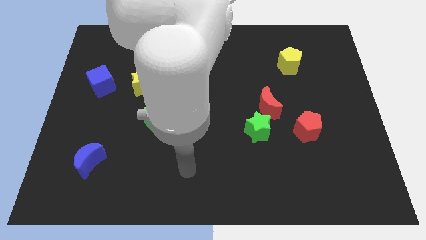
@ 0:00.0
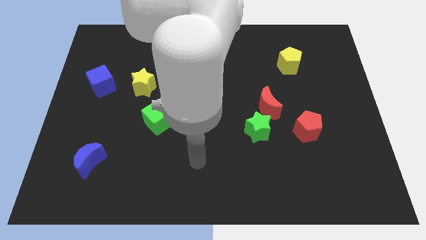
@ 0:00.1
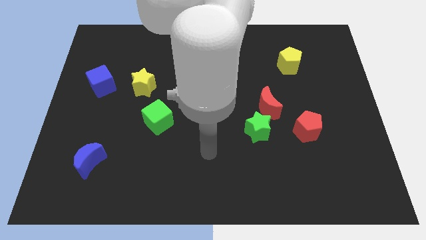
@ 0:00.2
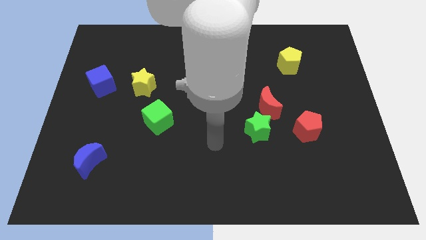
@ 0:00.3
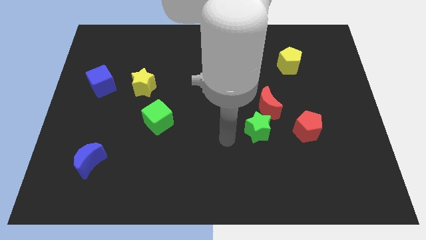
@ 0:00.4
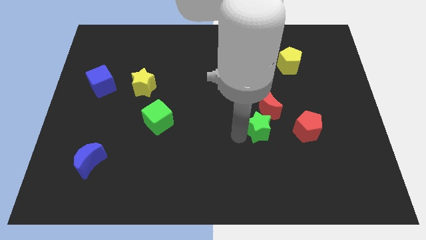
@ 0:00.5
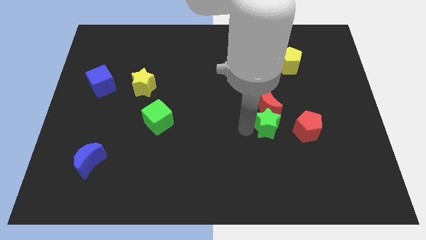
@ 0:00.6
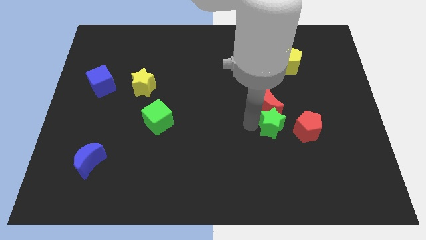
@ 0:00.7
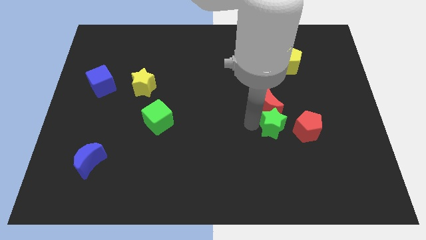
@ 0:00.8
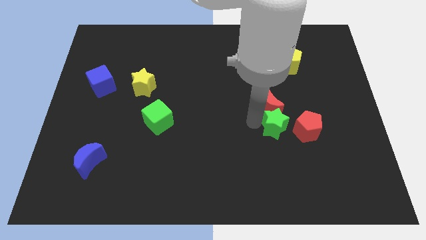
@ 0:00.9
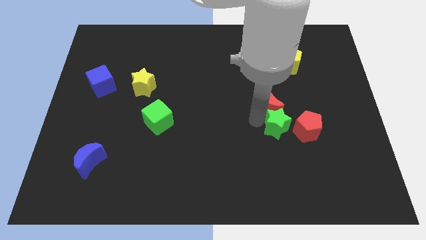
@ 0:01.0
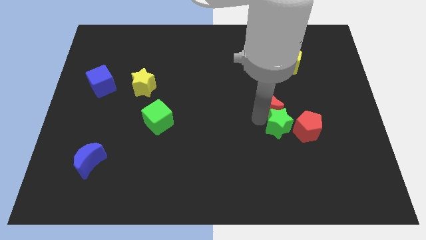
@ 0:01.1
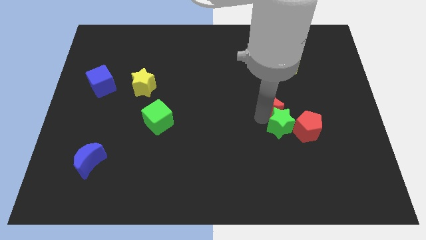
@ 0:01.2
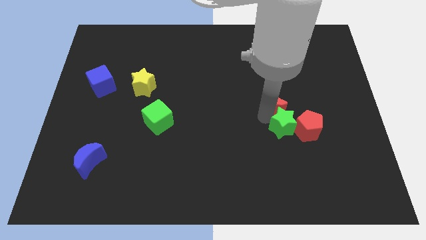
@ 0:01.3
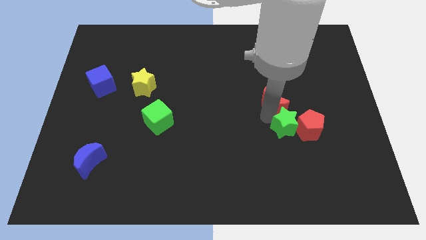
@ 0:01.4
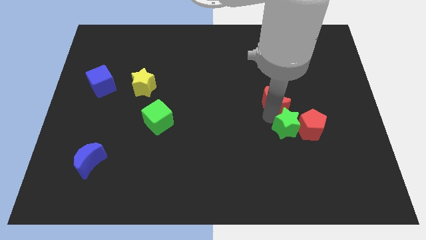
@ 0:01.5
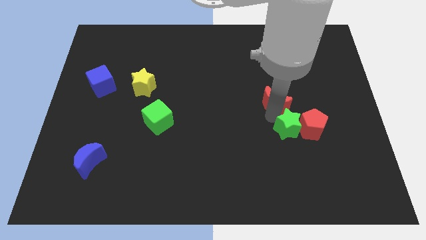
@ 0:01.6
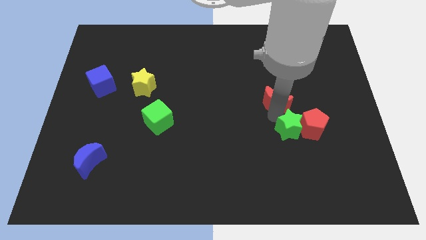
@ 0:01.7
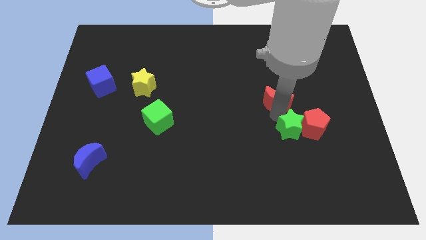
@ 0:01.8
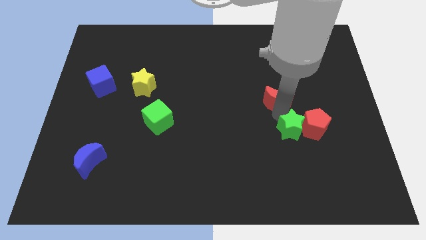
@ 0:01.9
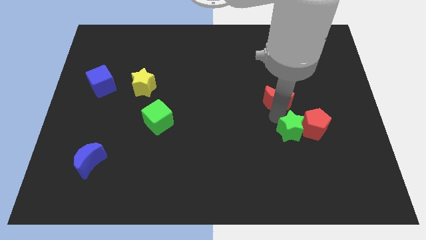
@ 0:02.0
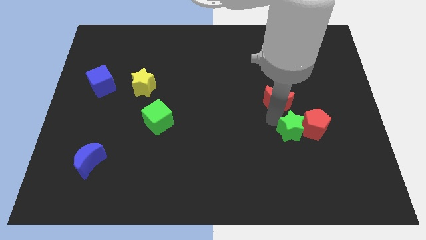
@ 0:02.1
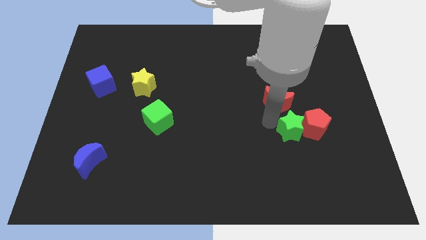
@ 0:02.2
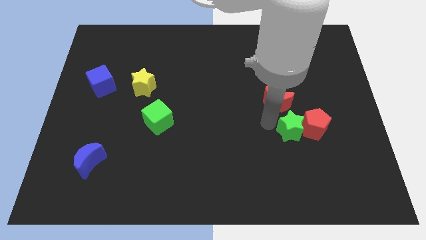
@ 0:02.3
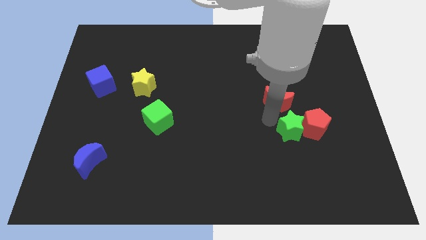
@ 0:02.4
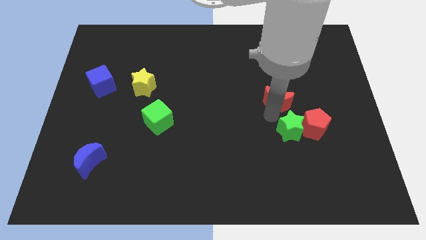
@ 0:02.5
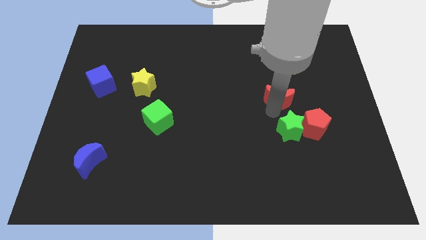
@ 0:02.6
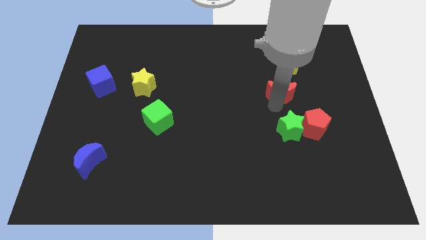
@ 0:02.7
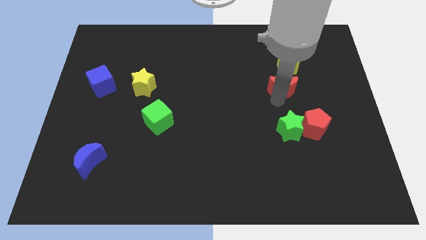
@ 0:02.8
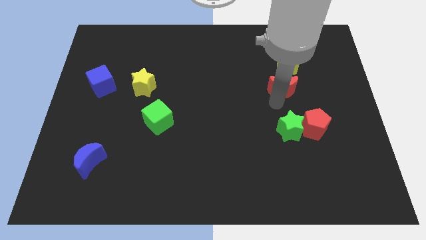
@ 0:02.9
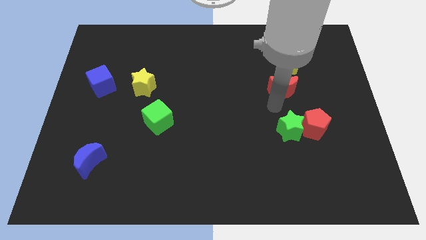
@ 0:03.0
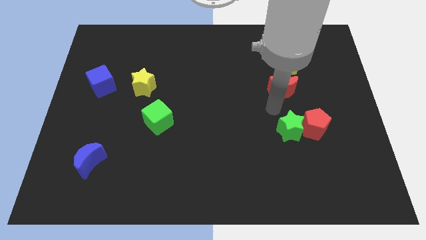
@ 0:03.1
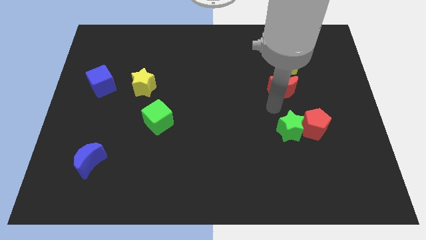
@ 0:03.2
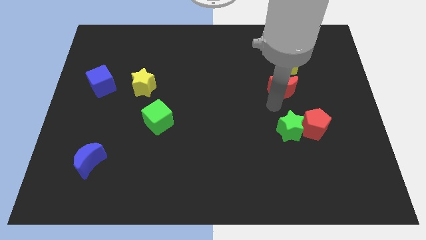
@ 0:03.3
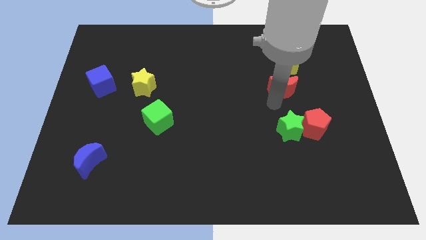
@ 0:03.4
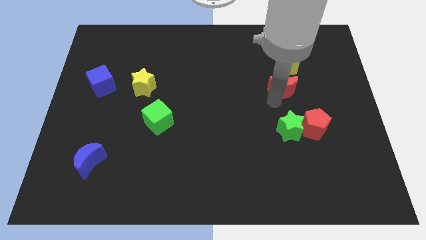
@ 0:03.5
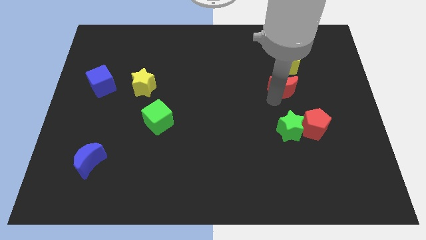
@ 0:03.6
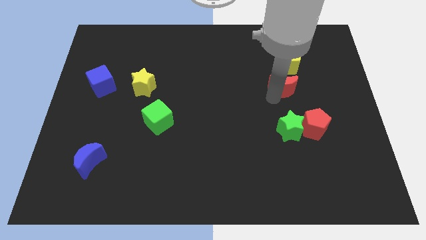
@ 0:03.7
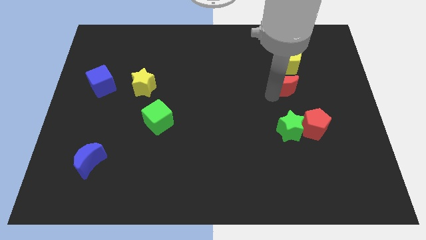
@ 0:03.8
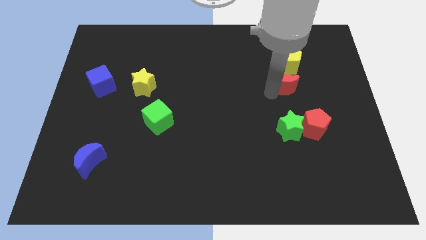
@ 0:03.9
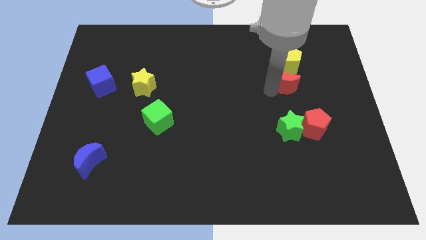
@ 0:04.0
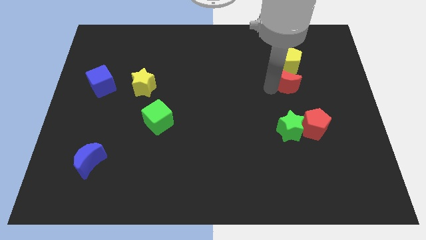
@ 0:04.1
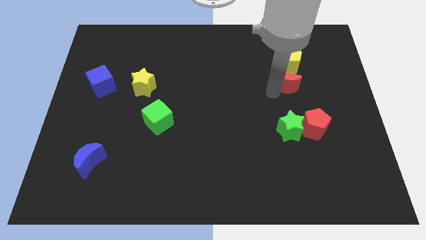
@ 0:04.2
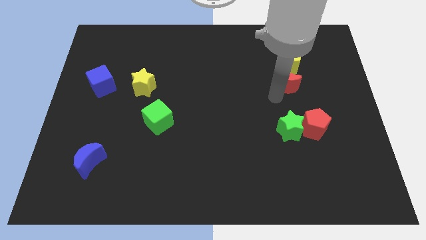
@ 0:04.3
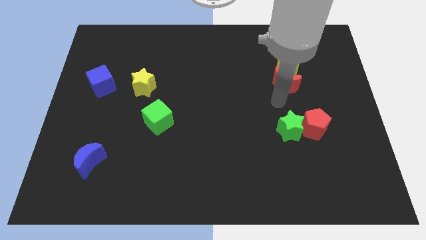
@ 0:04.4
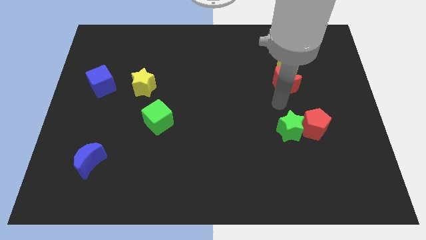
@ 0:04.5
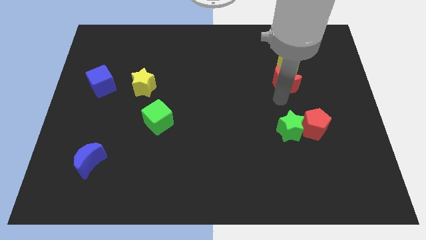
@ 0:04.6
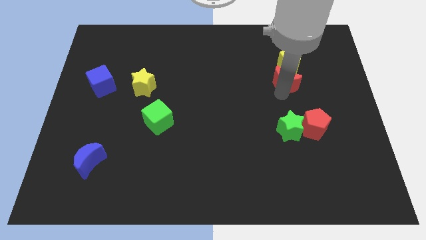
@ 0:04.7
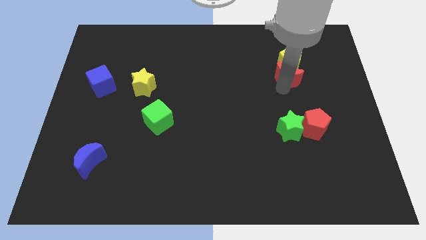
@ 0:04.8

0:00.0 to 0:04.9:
move the red moon towards the yellow pentagon

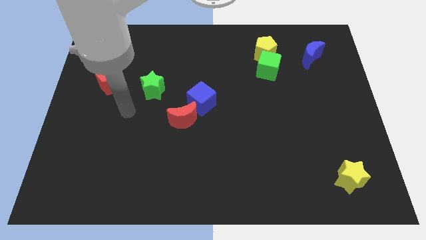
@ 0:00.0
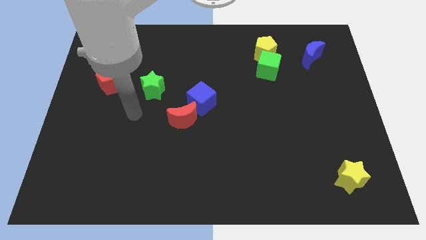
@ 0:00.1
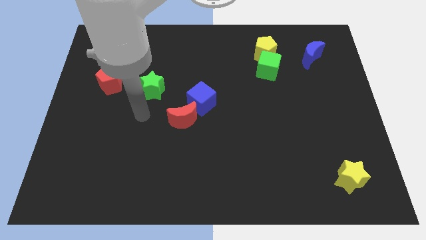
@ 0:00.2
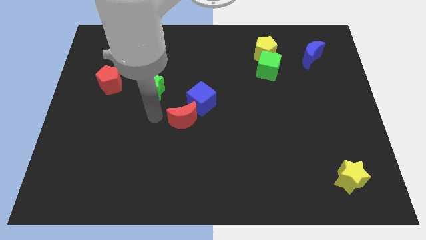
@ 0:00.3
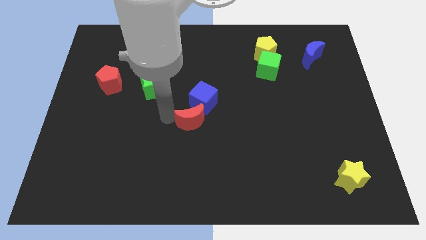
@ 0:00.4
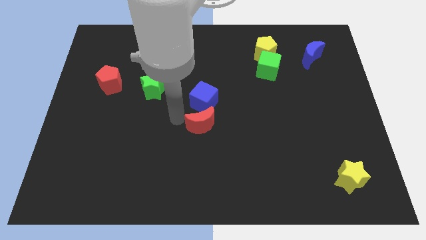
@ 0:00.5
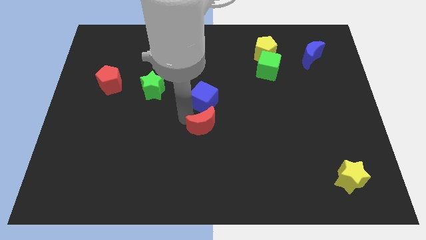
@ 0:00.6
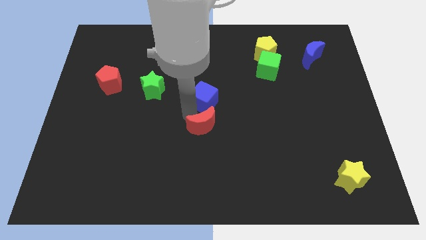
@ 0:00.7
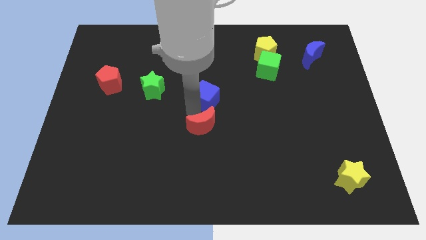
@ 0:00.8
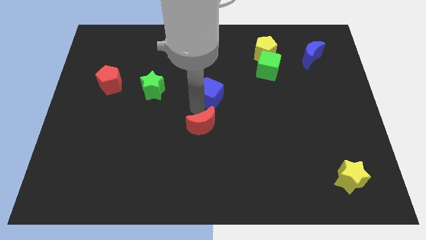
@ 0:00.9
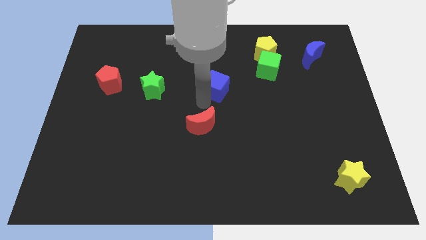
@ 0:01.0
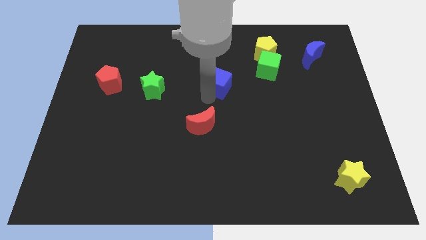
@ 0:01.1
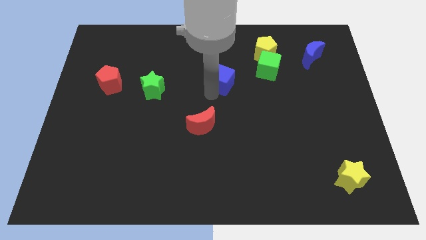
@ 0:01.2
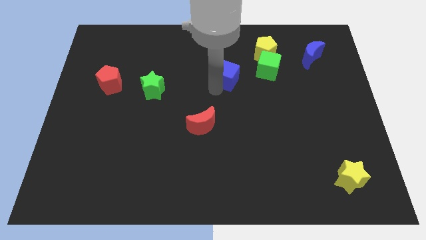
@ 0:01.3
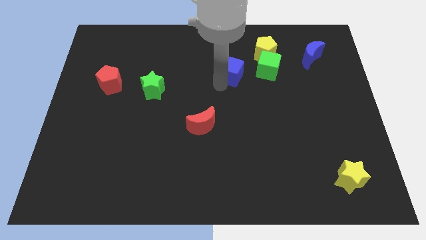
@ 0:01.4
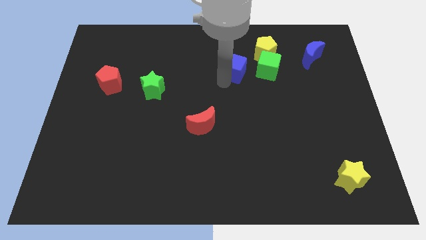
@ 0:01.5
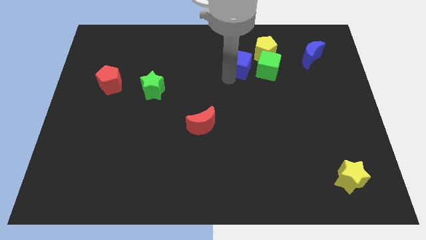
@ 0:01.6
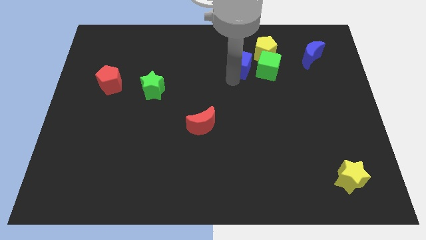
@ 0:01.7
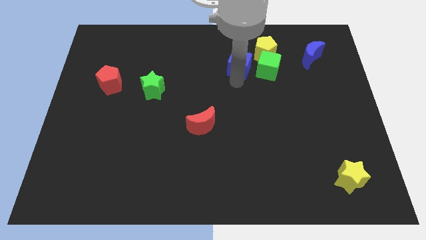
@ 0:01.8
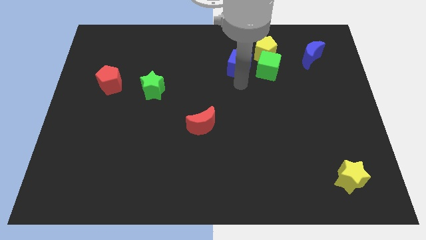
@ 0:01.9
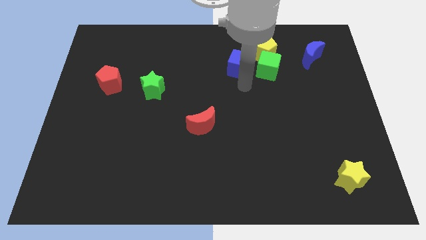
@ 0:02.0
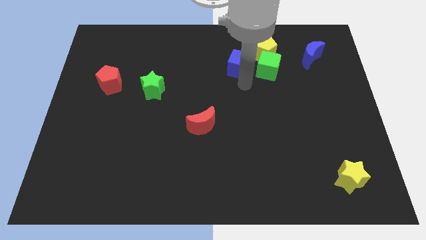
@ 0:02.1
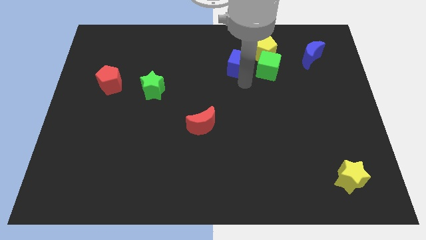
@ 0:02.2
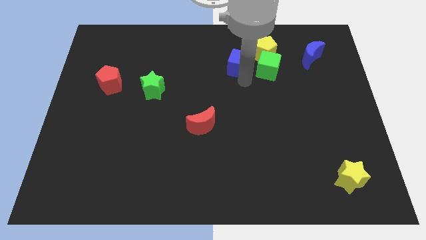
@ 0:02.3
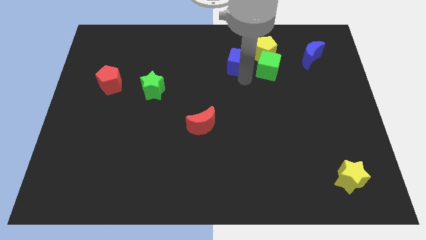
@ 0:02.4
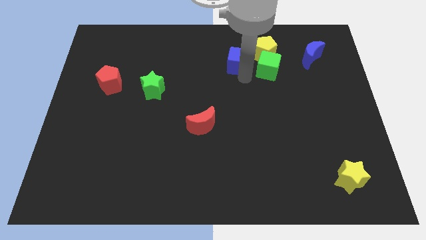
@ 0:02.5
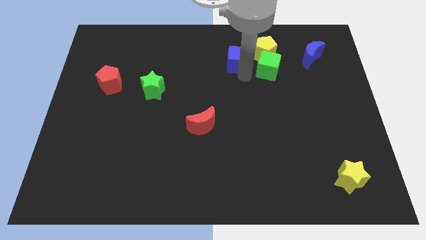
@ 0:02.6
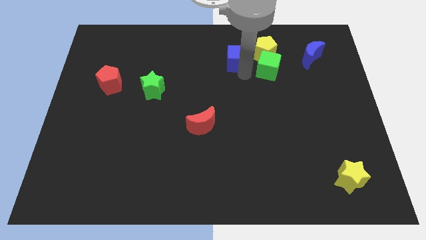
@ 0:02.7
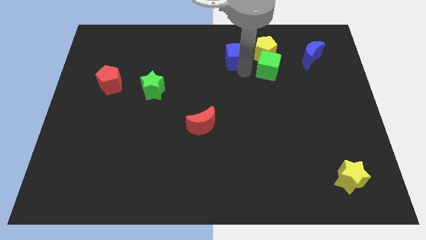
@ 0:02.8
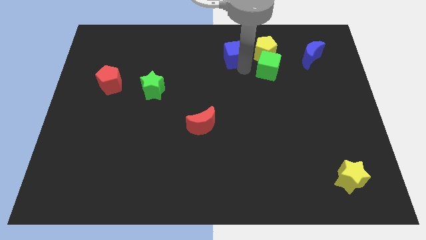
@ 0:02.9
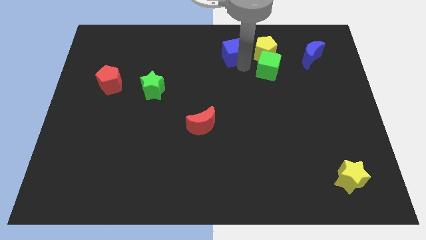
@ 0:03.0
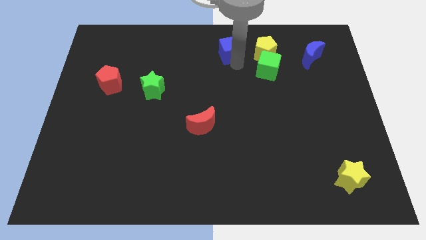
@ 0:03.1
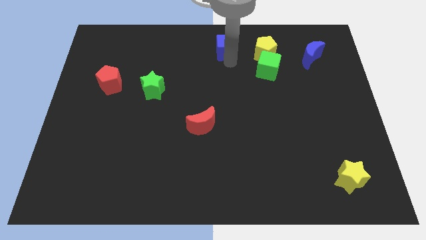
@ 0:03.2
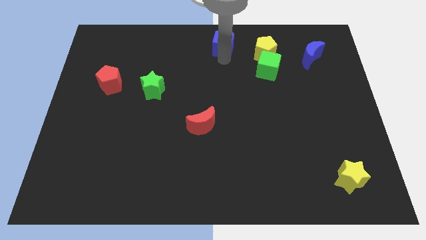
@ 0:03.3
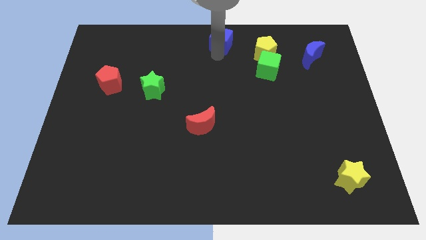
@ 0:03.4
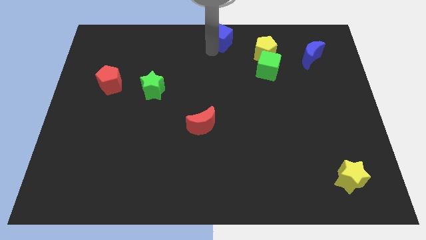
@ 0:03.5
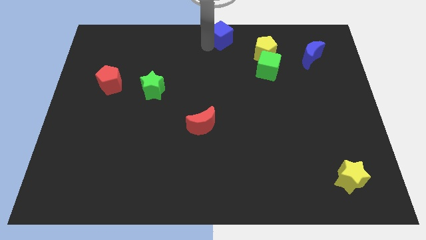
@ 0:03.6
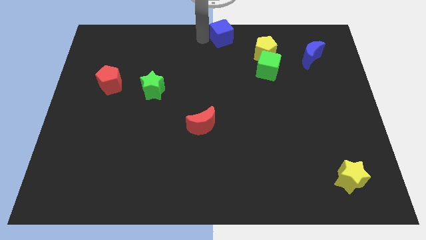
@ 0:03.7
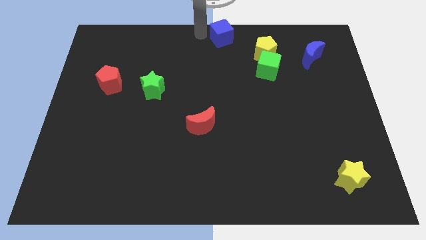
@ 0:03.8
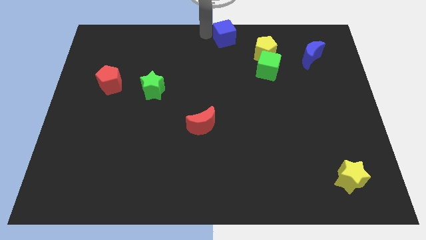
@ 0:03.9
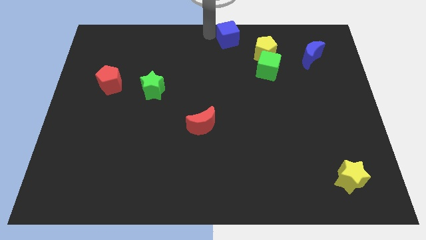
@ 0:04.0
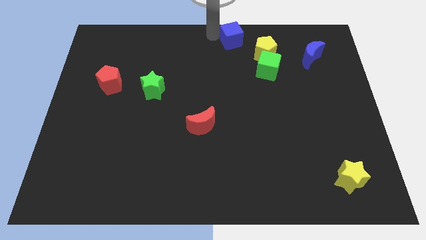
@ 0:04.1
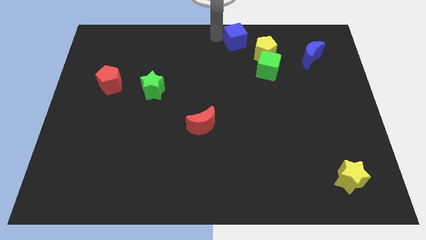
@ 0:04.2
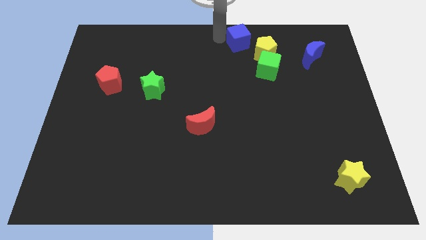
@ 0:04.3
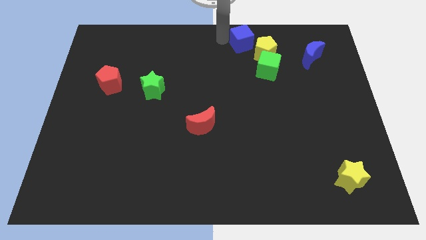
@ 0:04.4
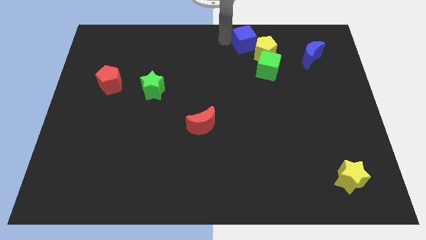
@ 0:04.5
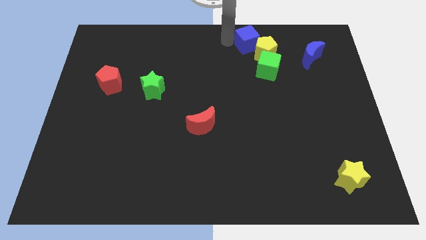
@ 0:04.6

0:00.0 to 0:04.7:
move the blue cube to the yellow pentagon
